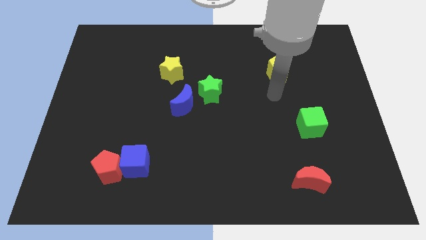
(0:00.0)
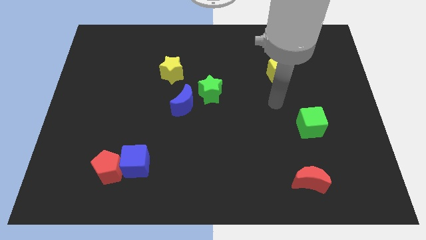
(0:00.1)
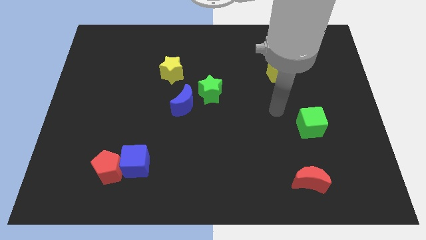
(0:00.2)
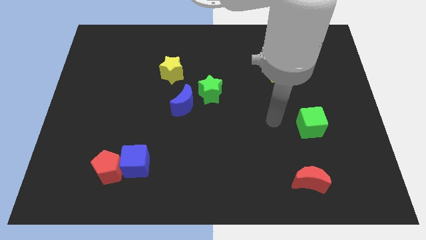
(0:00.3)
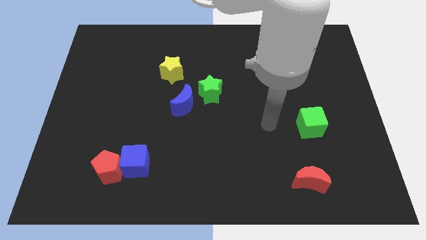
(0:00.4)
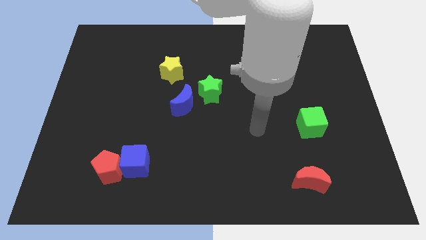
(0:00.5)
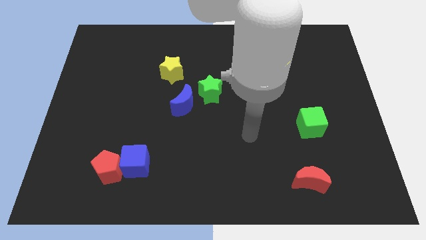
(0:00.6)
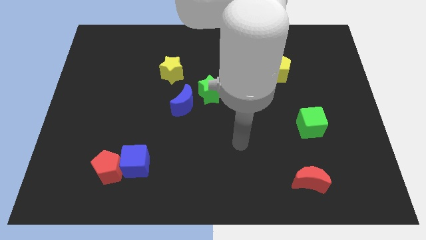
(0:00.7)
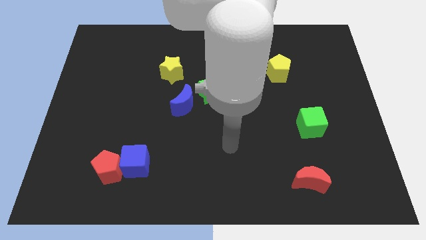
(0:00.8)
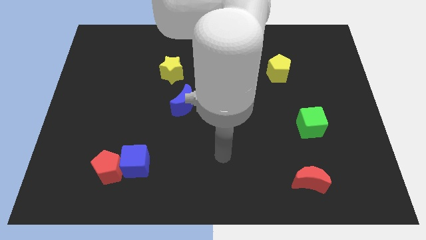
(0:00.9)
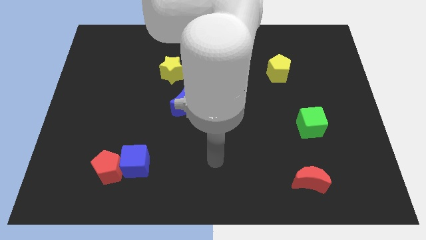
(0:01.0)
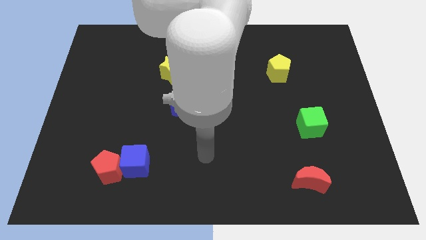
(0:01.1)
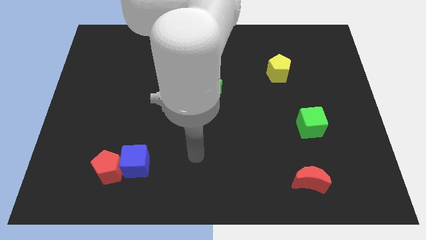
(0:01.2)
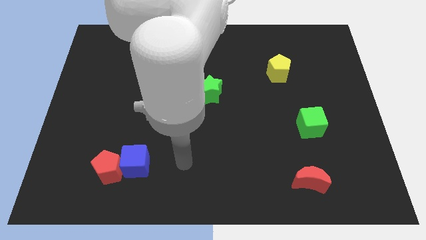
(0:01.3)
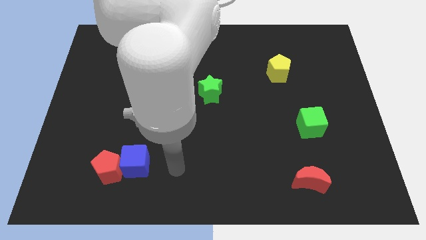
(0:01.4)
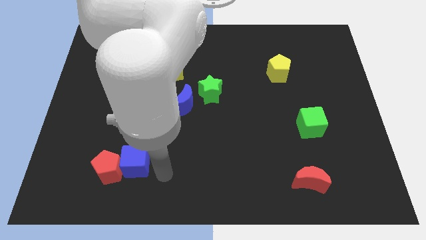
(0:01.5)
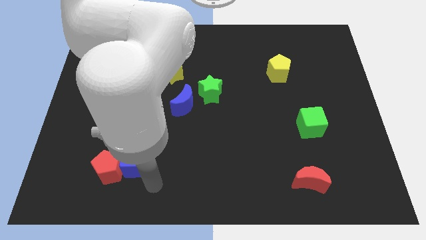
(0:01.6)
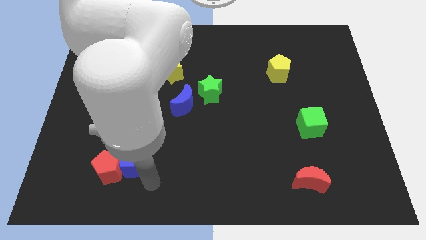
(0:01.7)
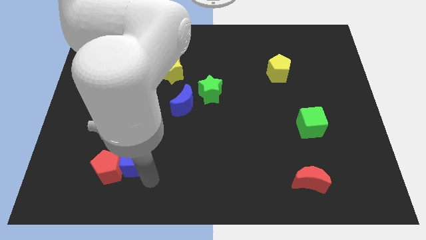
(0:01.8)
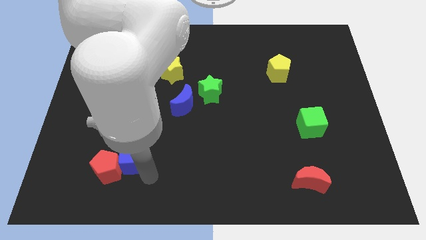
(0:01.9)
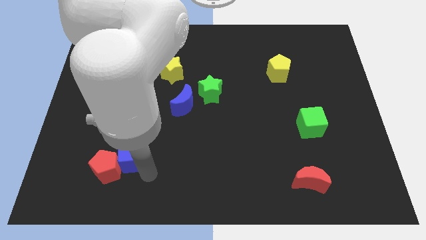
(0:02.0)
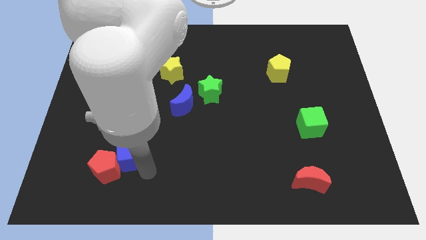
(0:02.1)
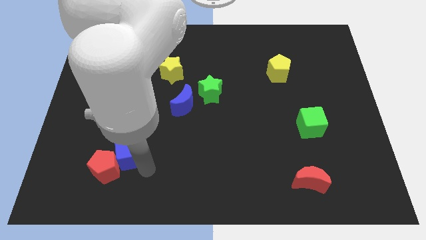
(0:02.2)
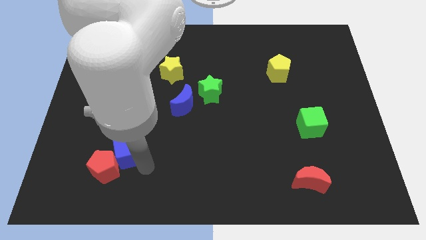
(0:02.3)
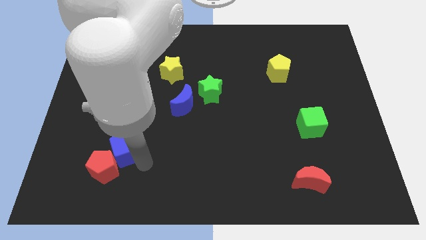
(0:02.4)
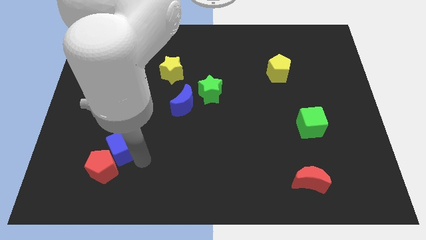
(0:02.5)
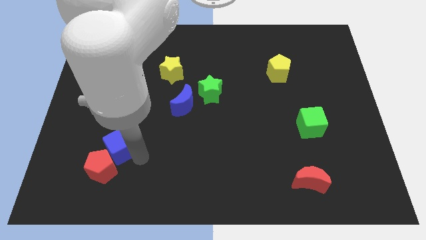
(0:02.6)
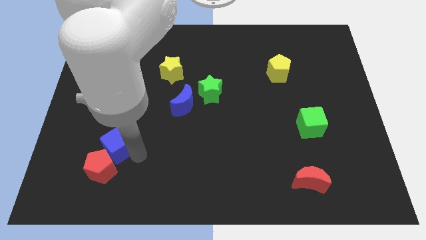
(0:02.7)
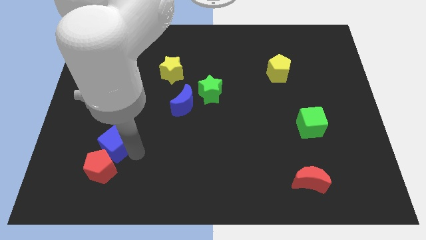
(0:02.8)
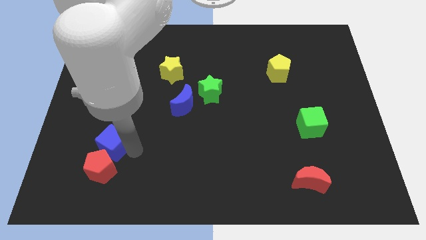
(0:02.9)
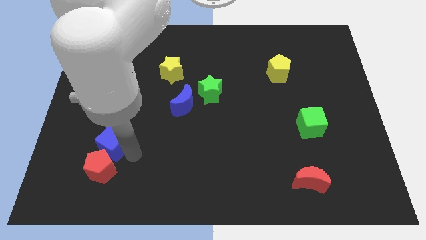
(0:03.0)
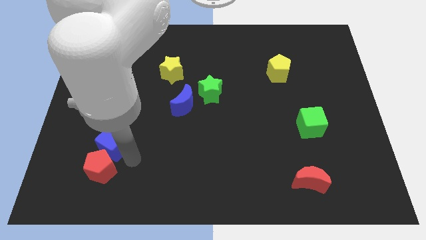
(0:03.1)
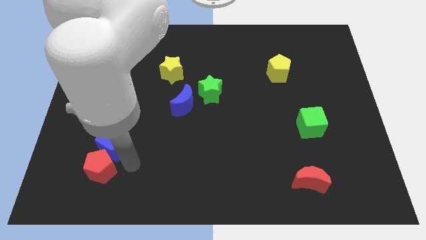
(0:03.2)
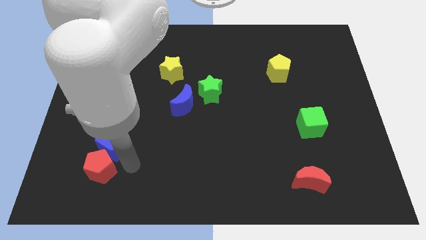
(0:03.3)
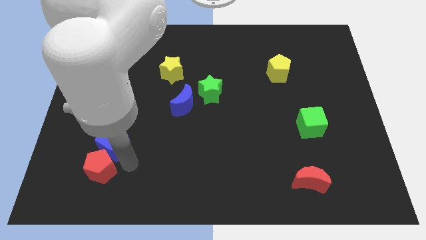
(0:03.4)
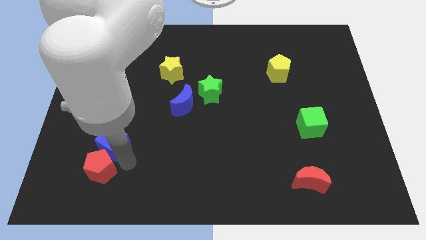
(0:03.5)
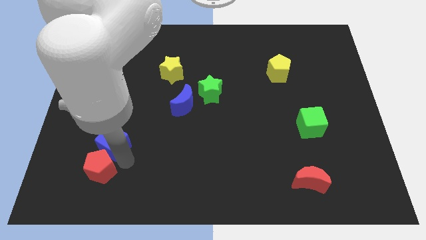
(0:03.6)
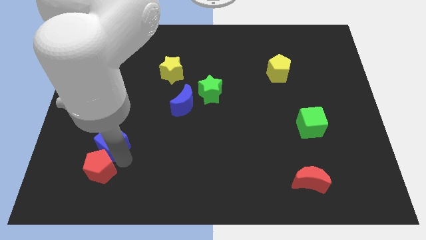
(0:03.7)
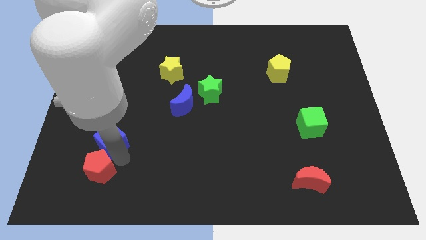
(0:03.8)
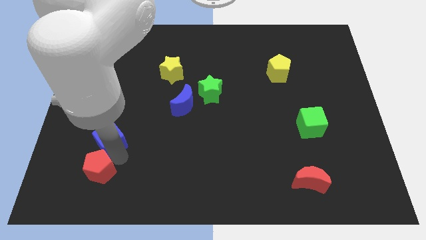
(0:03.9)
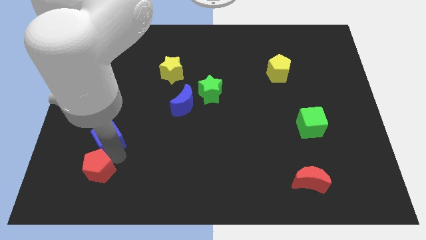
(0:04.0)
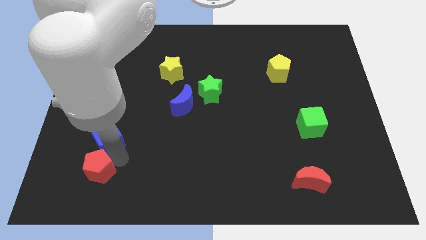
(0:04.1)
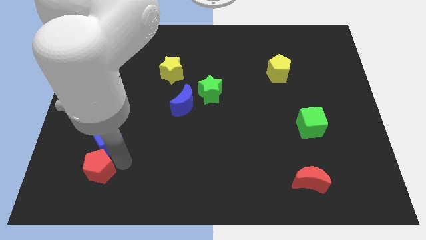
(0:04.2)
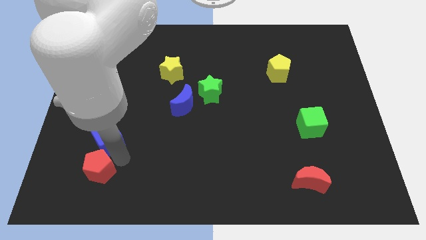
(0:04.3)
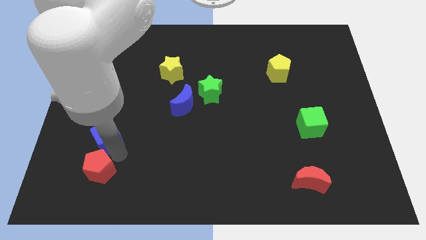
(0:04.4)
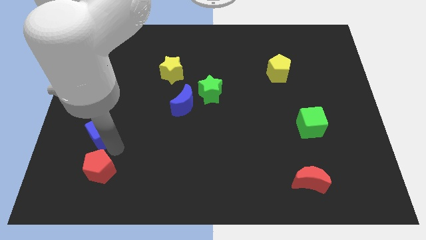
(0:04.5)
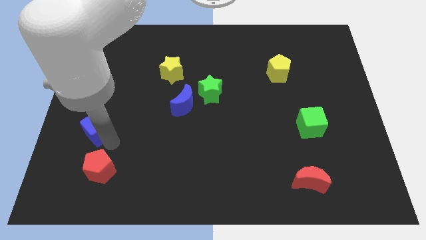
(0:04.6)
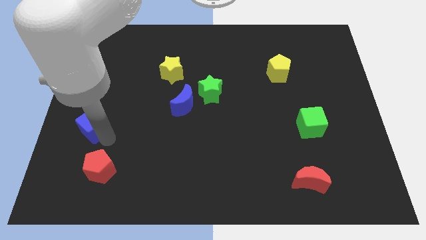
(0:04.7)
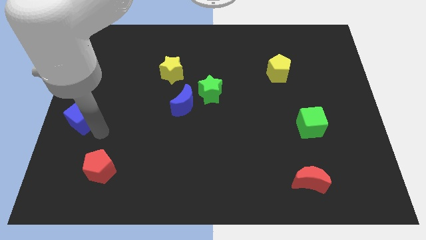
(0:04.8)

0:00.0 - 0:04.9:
push the blue cube to the left side

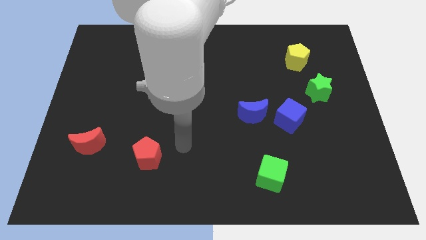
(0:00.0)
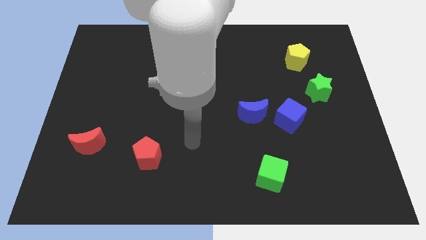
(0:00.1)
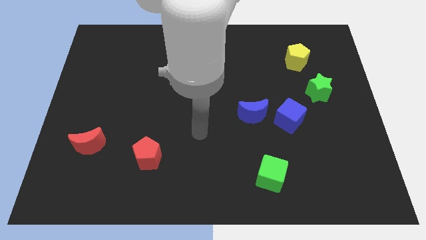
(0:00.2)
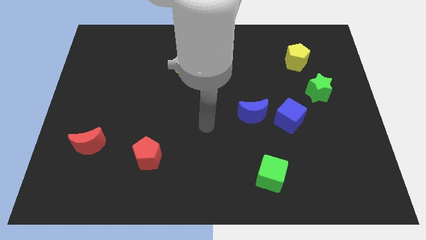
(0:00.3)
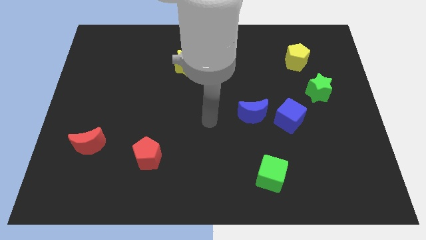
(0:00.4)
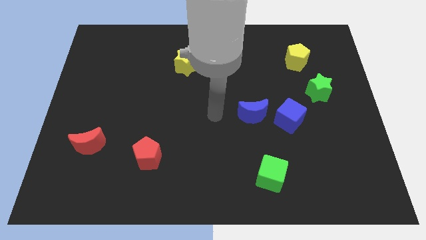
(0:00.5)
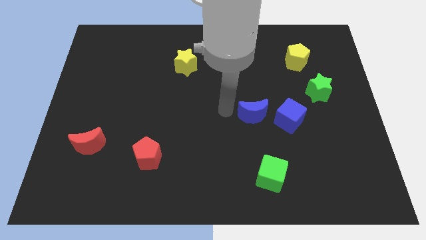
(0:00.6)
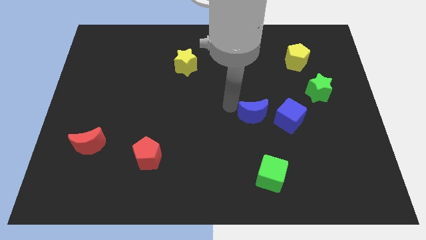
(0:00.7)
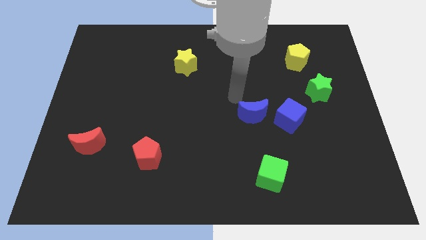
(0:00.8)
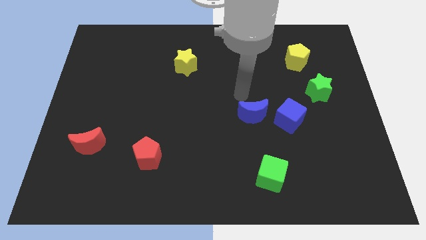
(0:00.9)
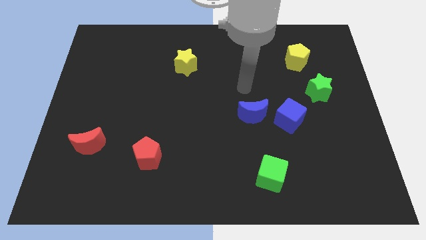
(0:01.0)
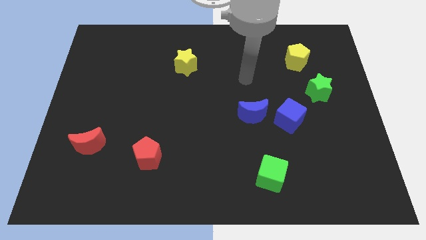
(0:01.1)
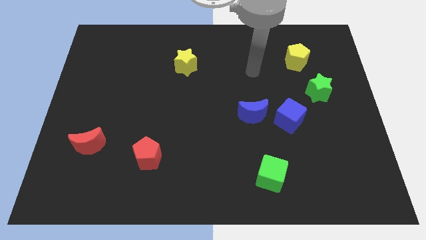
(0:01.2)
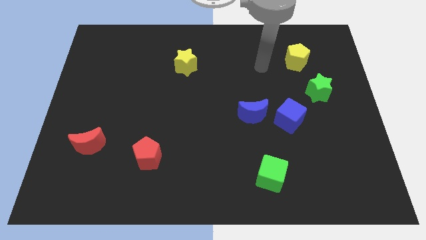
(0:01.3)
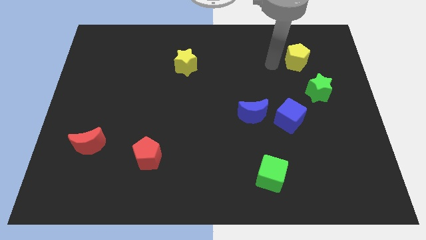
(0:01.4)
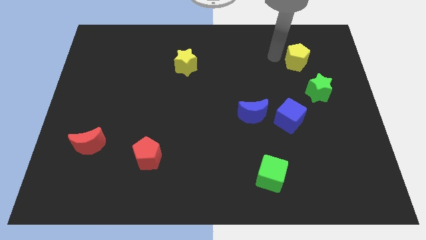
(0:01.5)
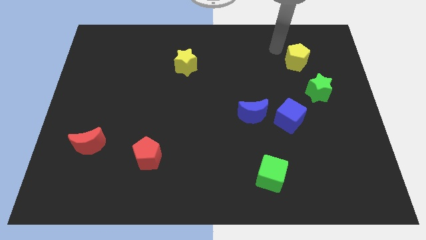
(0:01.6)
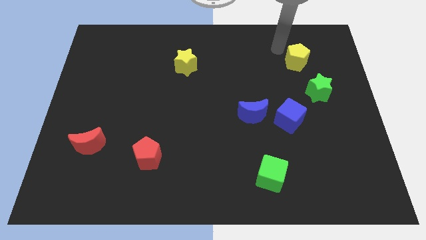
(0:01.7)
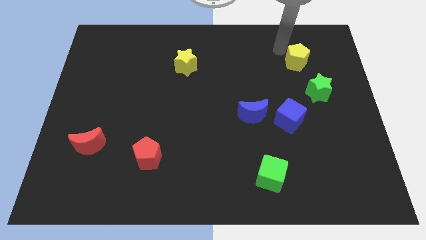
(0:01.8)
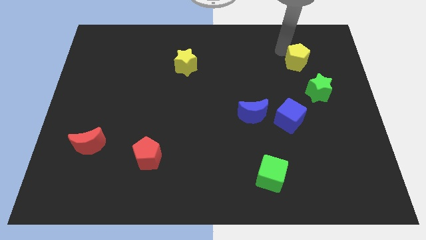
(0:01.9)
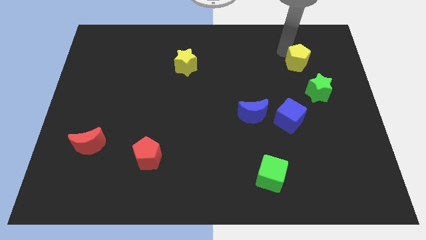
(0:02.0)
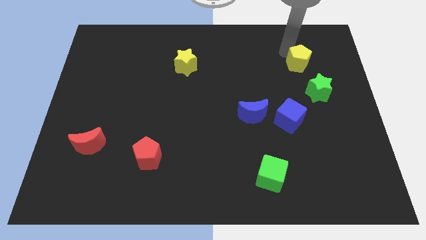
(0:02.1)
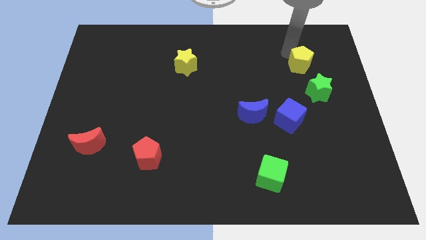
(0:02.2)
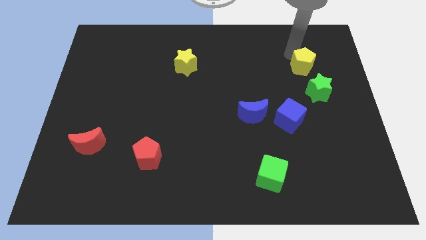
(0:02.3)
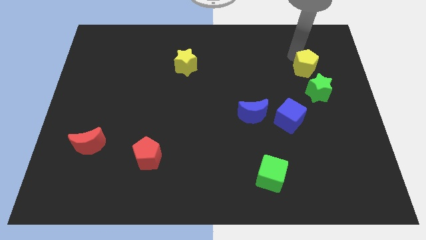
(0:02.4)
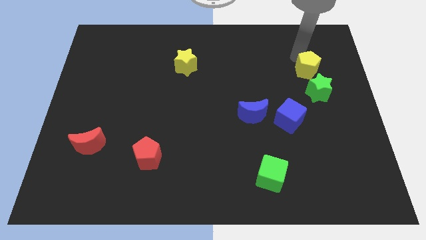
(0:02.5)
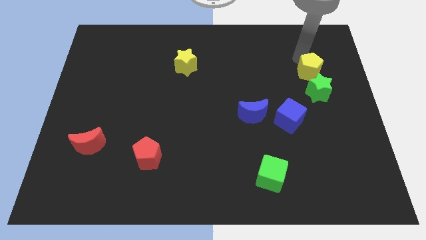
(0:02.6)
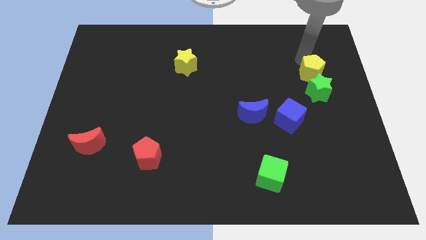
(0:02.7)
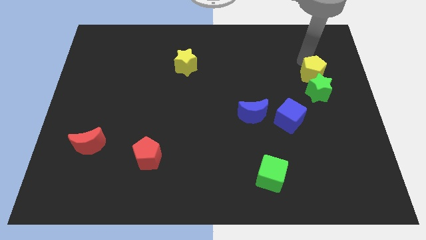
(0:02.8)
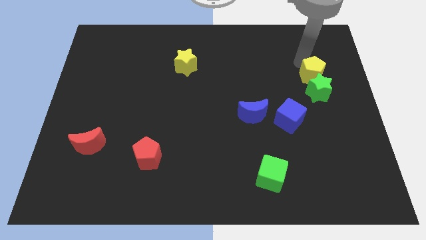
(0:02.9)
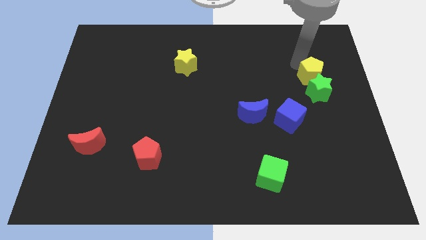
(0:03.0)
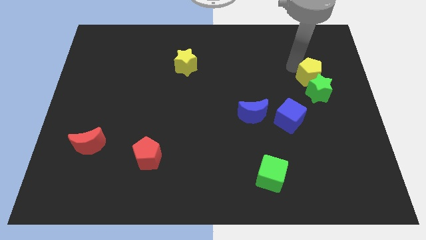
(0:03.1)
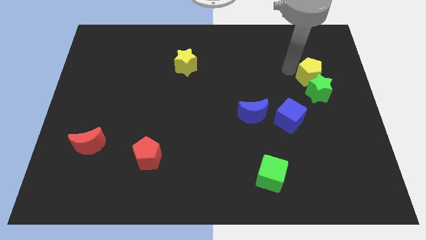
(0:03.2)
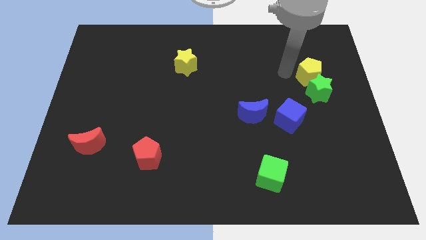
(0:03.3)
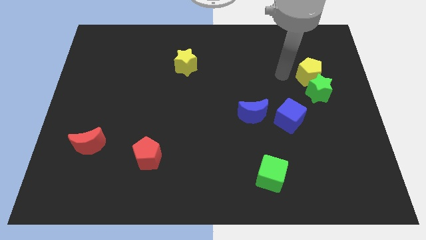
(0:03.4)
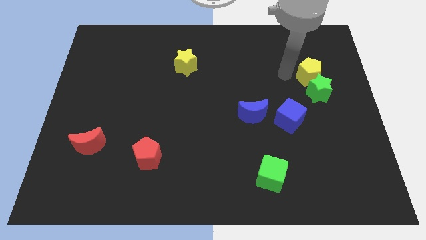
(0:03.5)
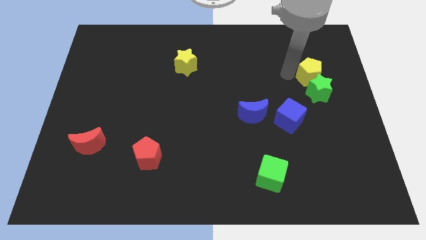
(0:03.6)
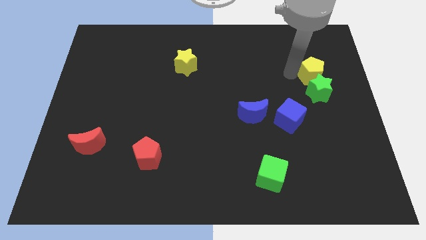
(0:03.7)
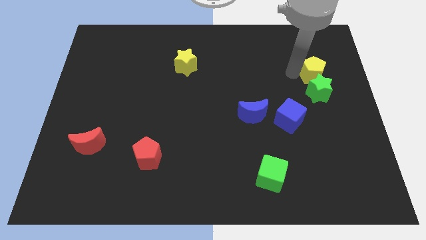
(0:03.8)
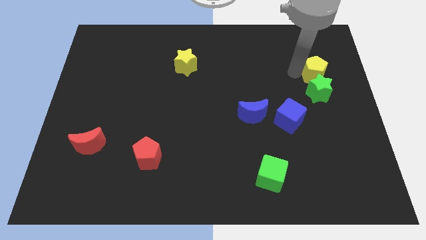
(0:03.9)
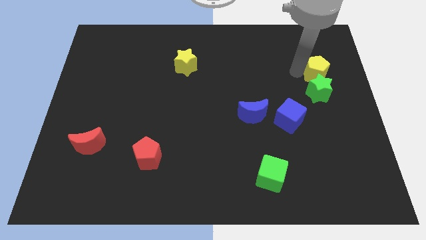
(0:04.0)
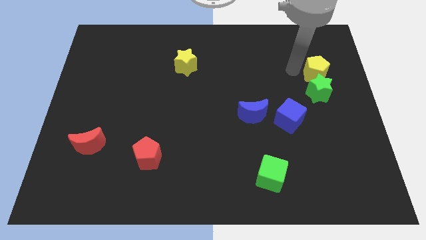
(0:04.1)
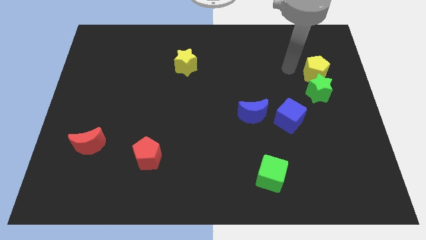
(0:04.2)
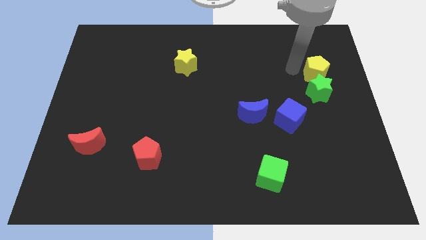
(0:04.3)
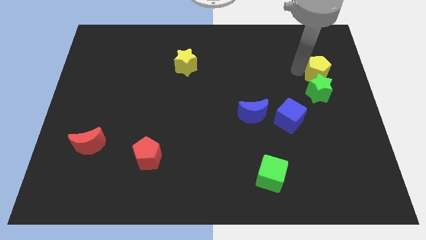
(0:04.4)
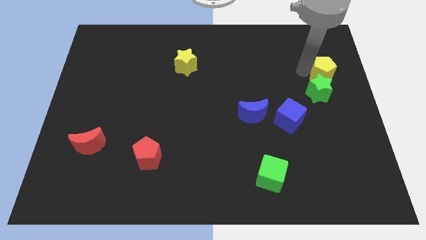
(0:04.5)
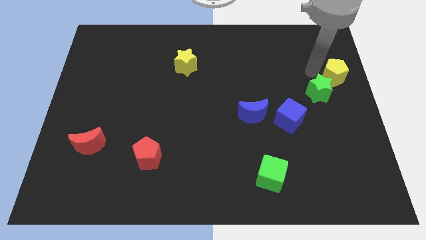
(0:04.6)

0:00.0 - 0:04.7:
slide the yellow pentagon to the right side of the board
